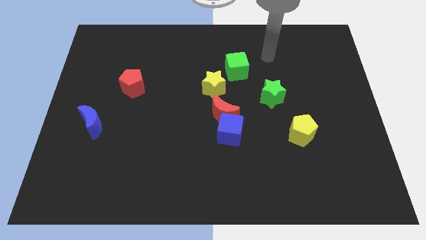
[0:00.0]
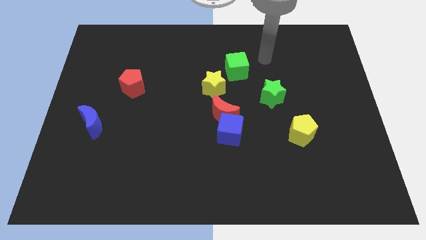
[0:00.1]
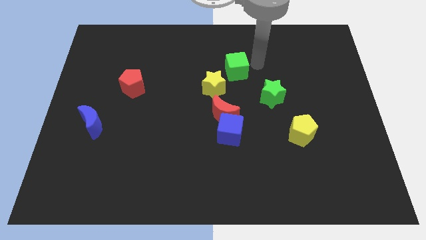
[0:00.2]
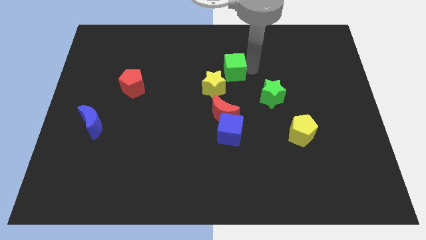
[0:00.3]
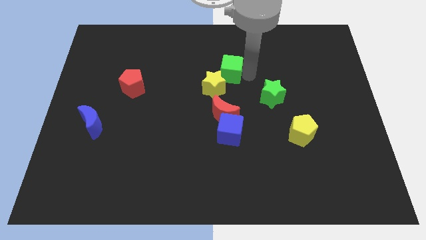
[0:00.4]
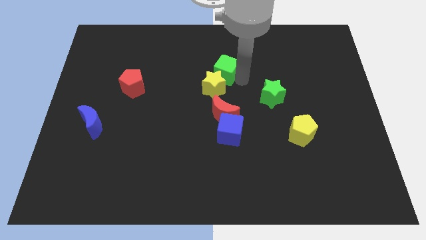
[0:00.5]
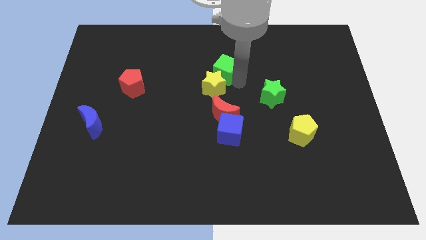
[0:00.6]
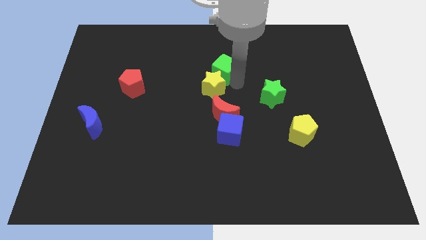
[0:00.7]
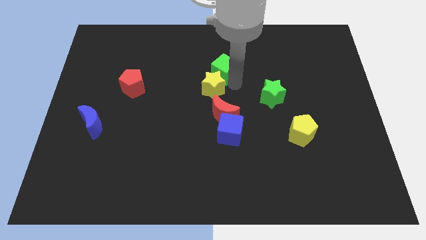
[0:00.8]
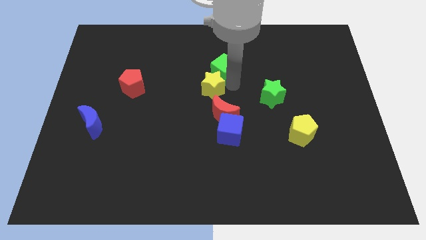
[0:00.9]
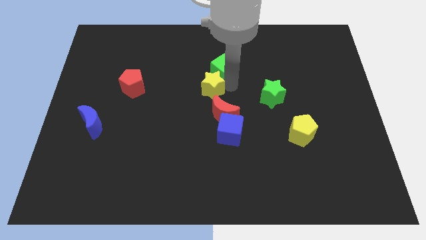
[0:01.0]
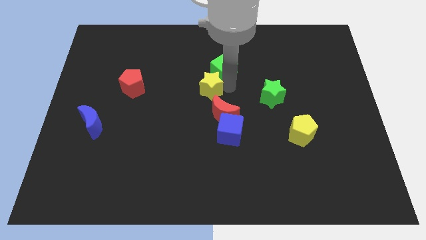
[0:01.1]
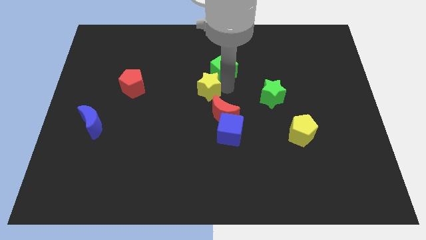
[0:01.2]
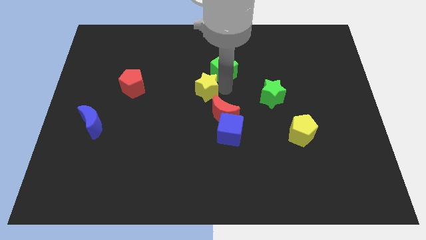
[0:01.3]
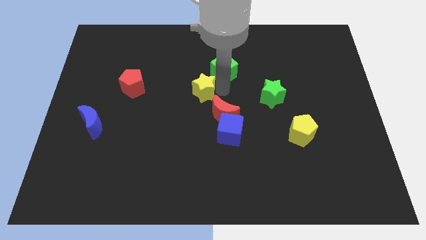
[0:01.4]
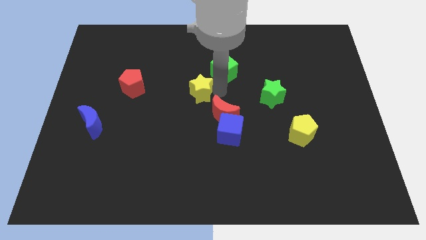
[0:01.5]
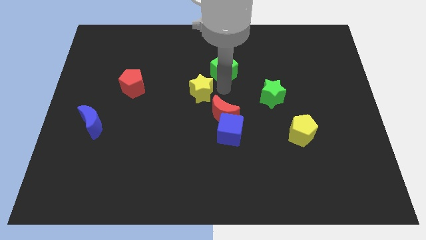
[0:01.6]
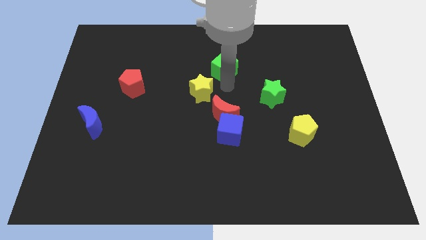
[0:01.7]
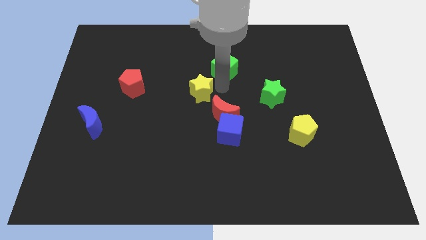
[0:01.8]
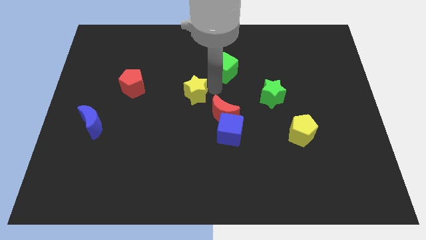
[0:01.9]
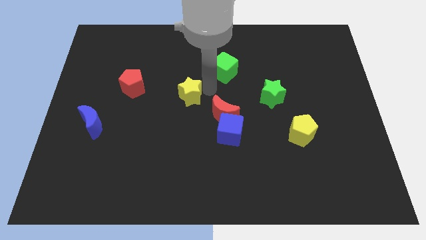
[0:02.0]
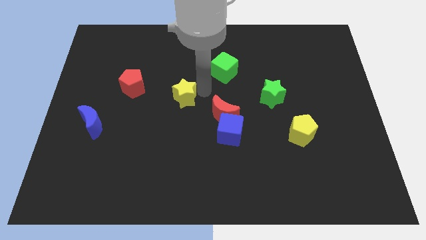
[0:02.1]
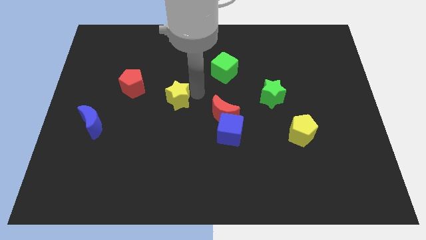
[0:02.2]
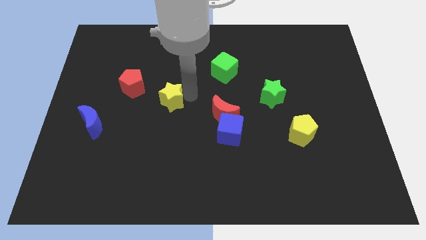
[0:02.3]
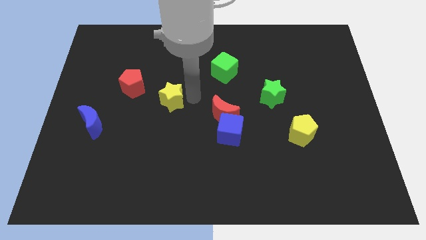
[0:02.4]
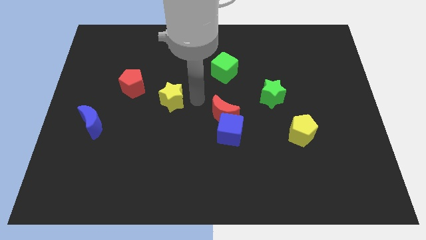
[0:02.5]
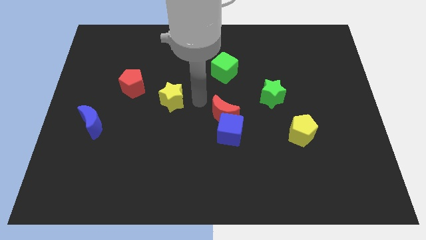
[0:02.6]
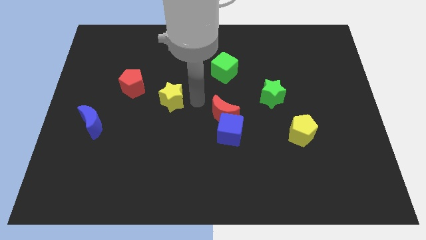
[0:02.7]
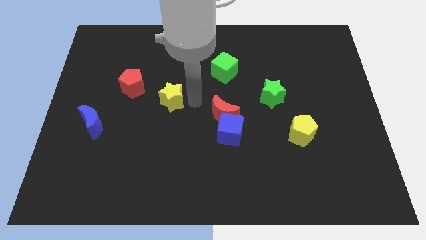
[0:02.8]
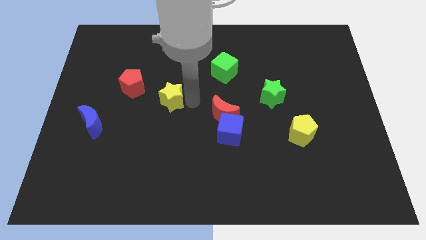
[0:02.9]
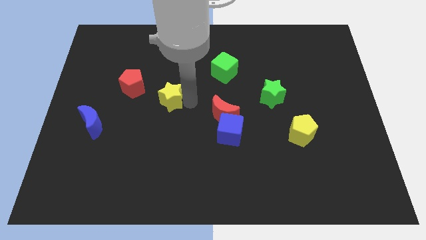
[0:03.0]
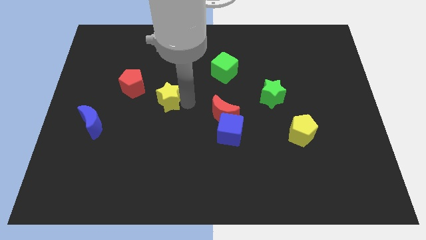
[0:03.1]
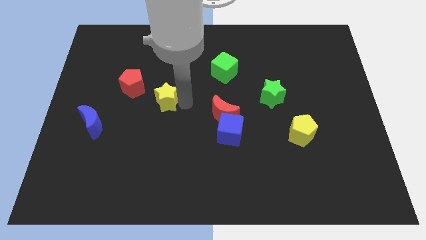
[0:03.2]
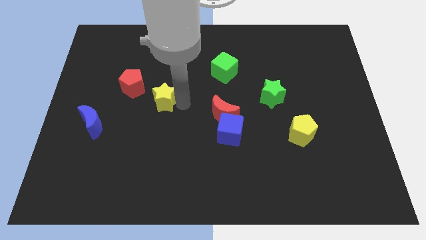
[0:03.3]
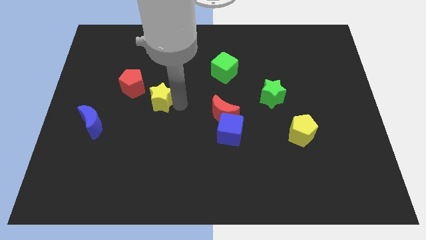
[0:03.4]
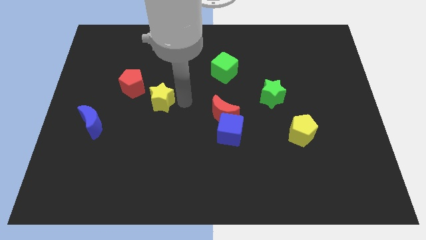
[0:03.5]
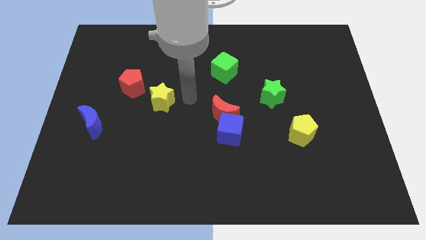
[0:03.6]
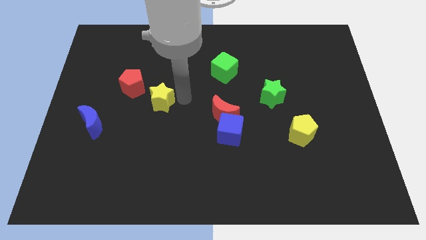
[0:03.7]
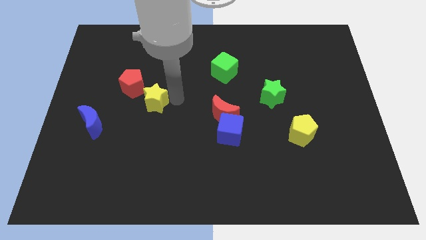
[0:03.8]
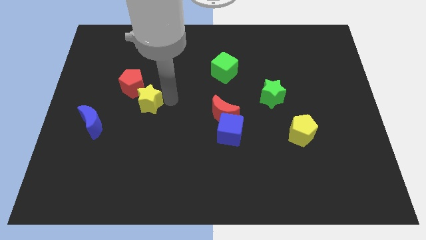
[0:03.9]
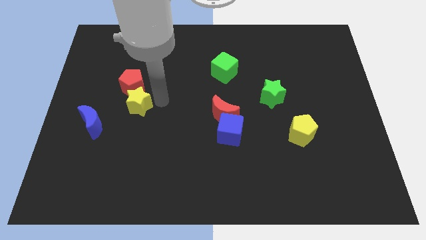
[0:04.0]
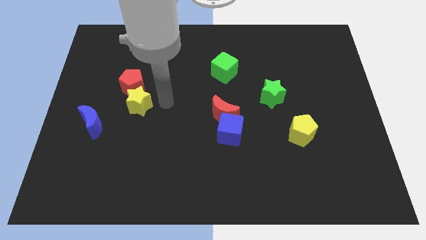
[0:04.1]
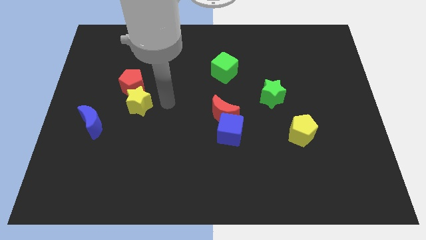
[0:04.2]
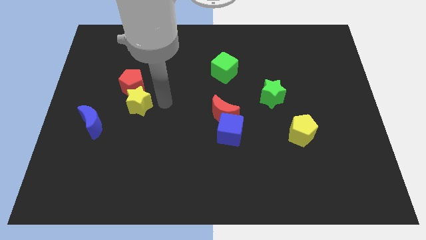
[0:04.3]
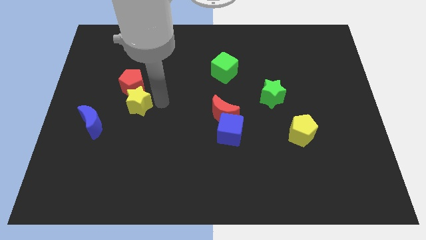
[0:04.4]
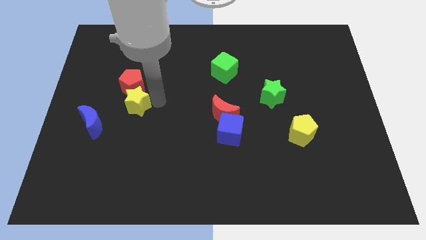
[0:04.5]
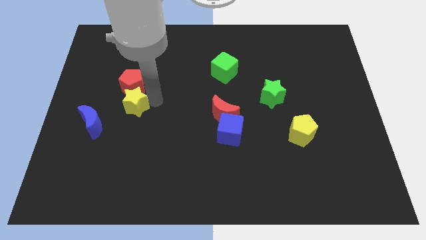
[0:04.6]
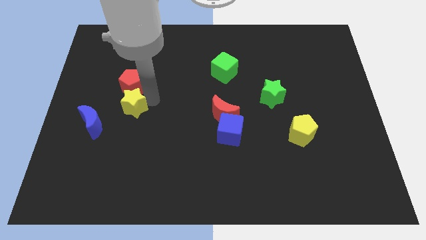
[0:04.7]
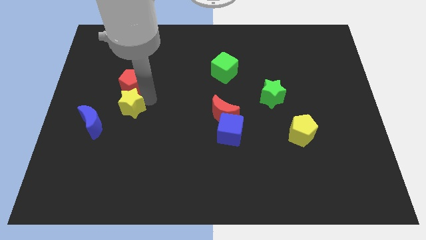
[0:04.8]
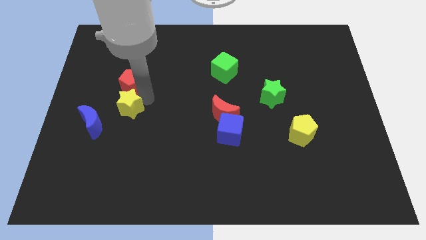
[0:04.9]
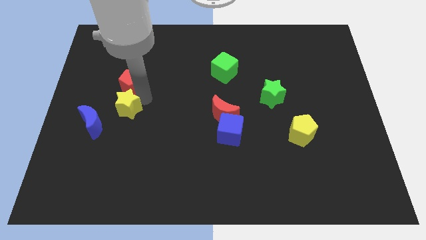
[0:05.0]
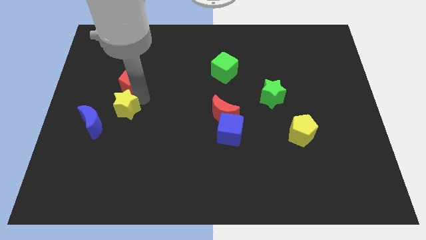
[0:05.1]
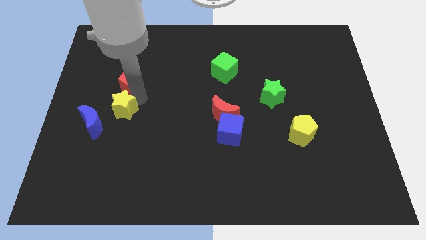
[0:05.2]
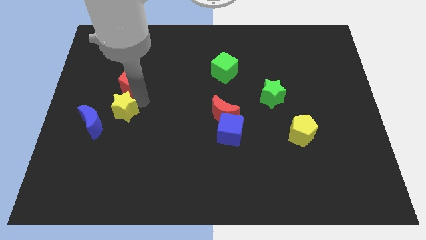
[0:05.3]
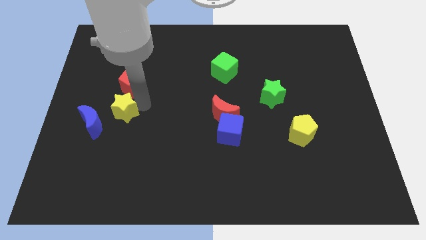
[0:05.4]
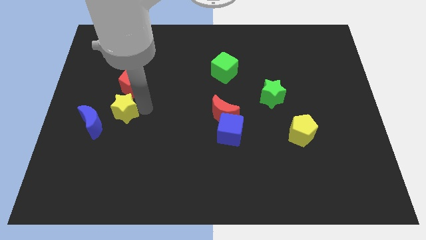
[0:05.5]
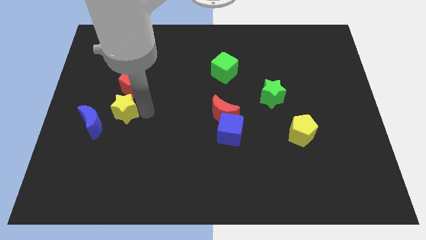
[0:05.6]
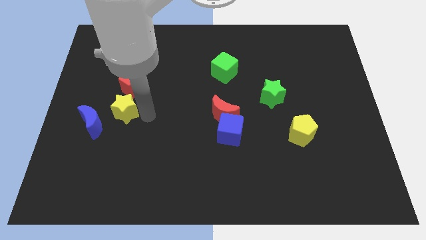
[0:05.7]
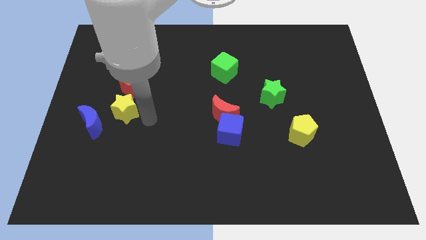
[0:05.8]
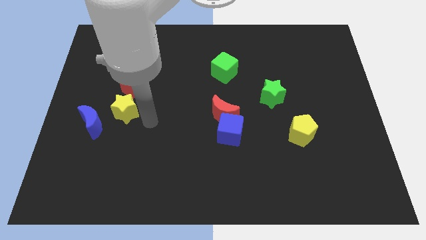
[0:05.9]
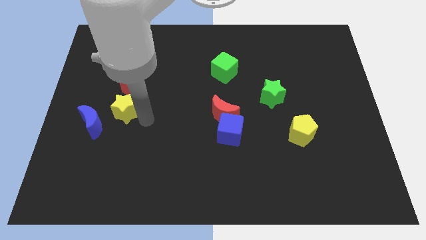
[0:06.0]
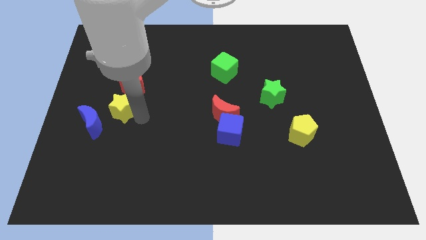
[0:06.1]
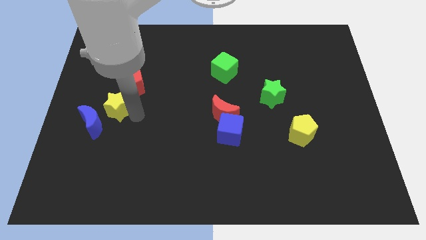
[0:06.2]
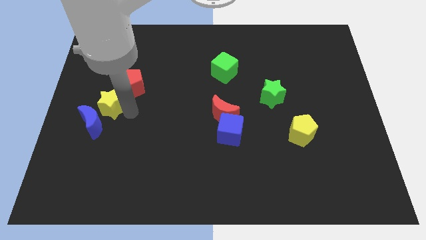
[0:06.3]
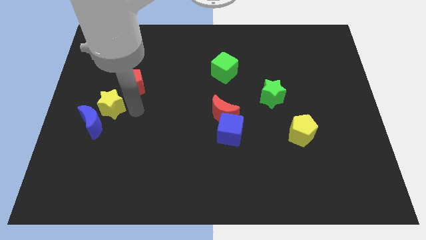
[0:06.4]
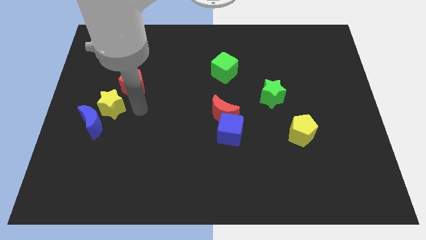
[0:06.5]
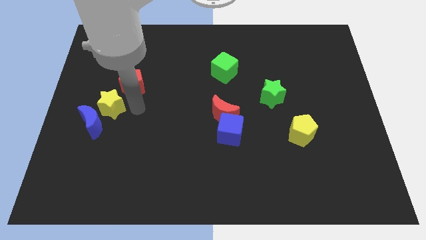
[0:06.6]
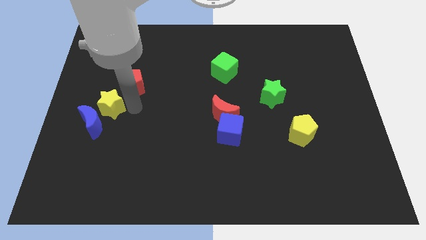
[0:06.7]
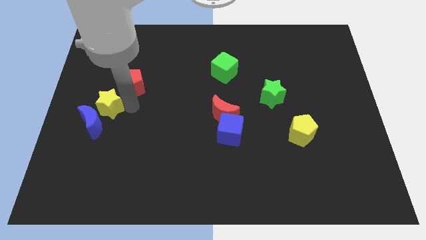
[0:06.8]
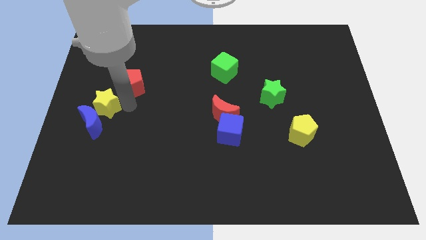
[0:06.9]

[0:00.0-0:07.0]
put the yellow star to the center left
